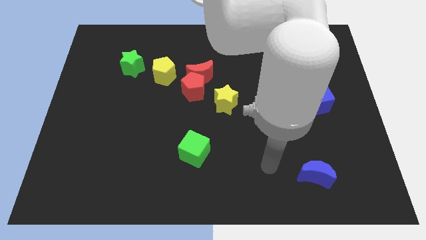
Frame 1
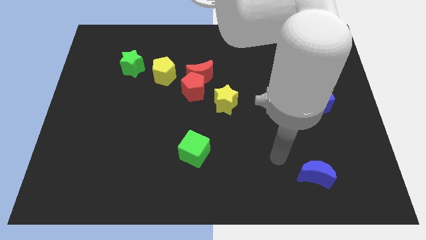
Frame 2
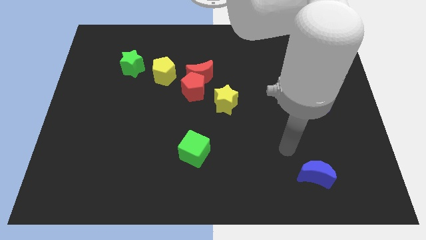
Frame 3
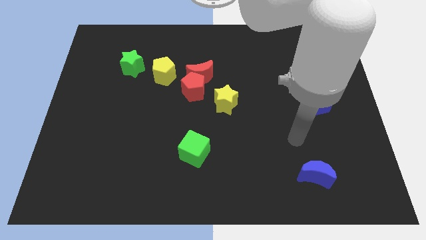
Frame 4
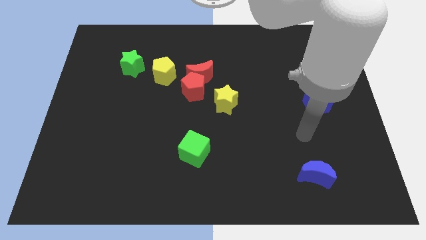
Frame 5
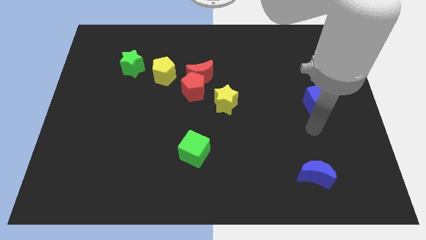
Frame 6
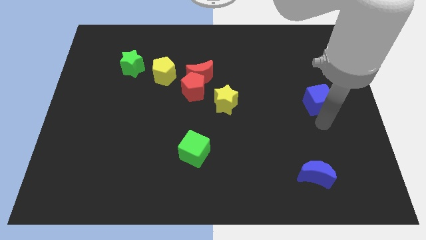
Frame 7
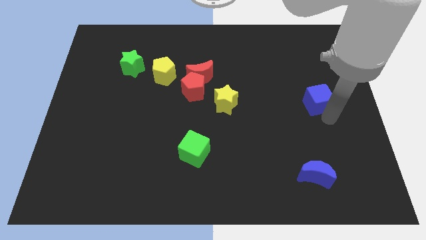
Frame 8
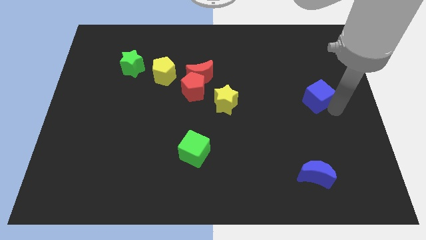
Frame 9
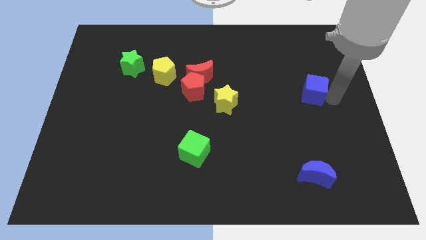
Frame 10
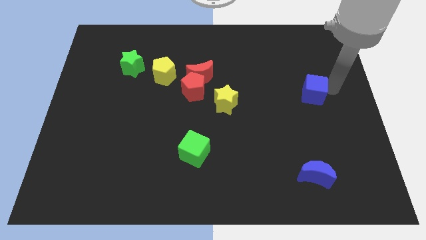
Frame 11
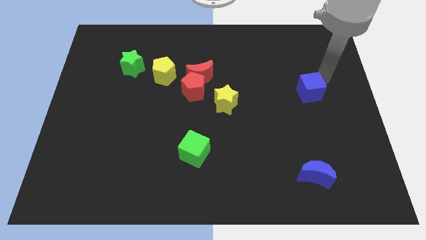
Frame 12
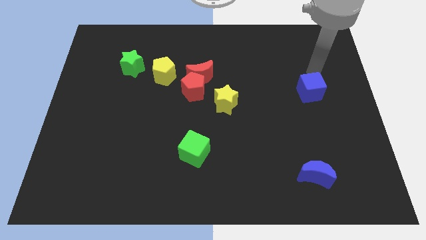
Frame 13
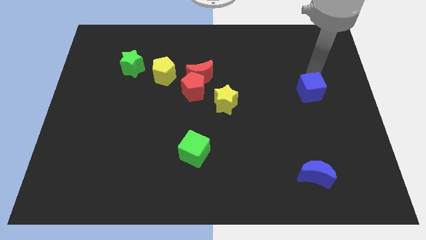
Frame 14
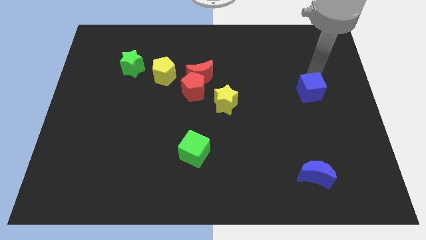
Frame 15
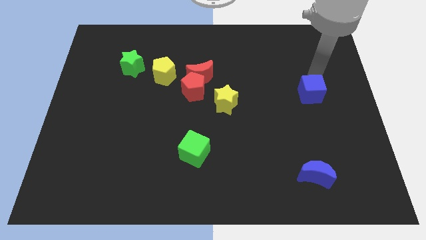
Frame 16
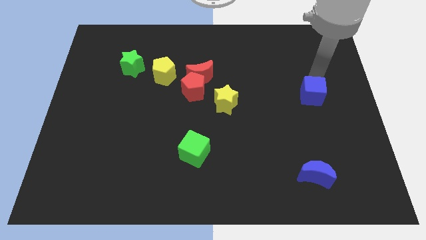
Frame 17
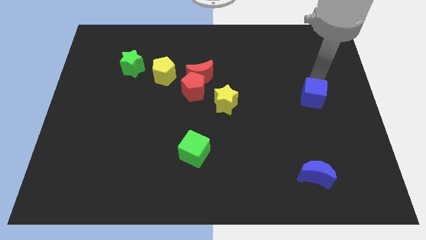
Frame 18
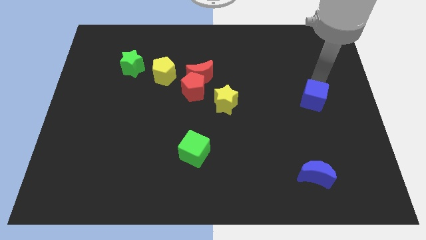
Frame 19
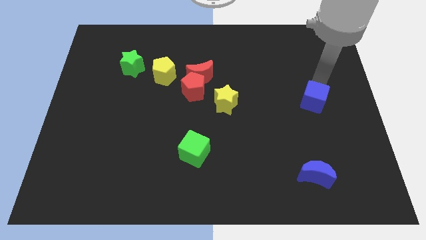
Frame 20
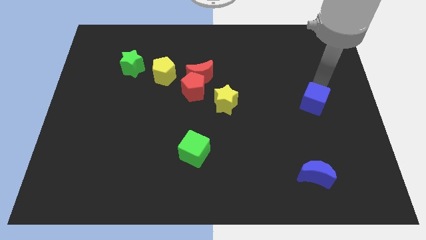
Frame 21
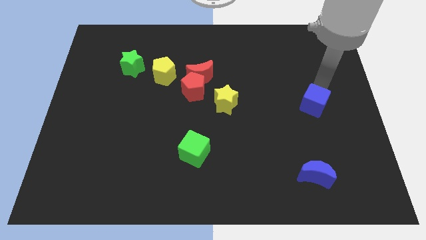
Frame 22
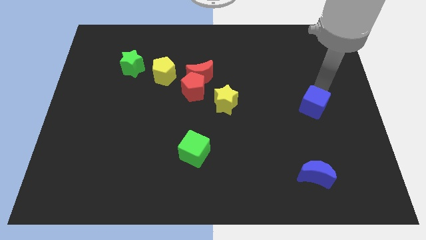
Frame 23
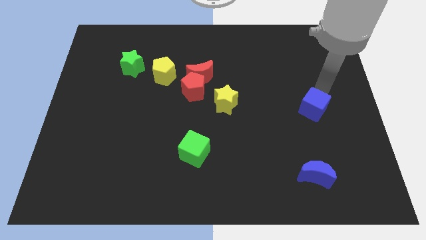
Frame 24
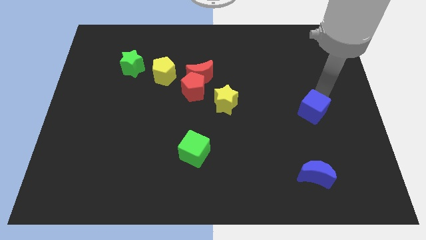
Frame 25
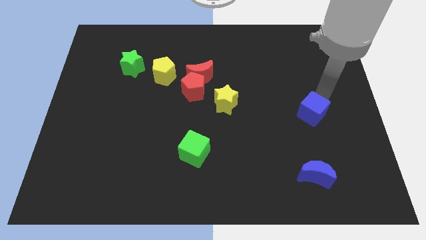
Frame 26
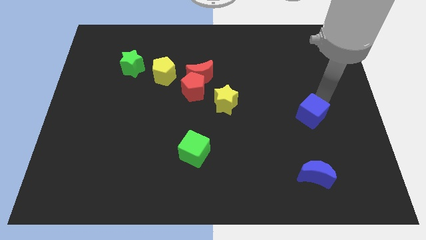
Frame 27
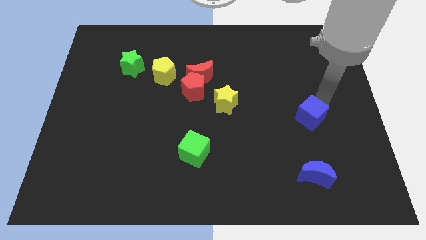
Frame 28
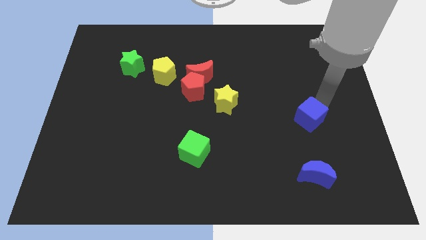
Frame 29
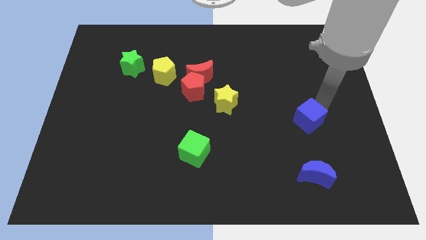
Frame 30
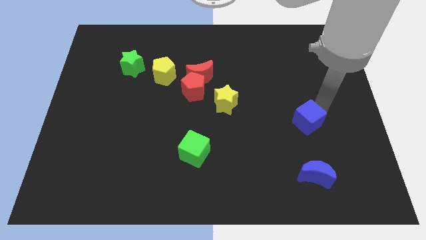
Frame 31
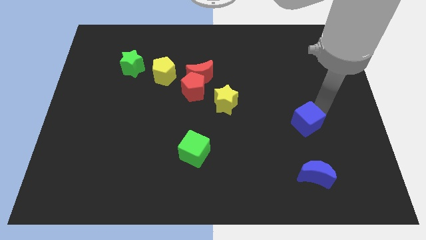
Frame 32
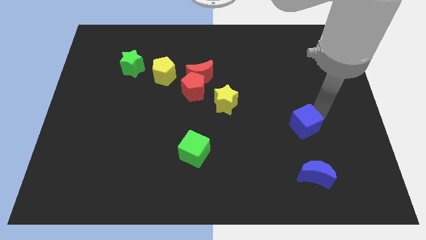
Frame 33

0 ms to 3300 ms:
move the blue cube down and to the left diagonally a little bit

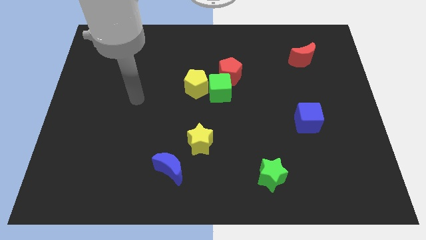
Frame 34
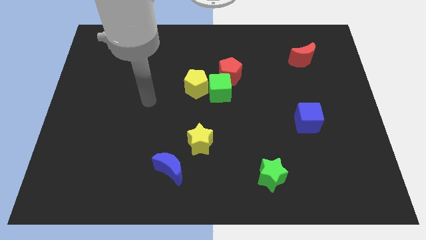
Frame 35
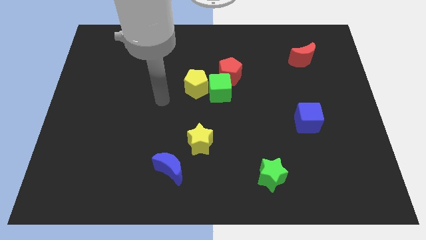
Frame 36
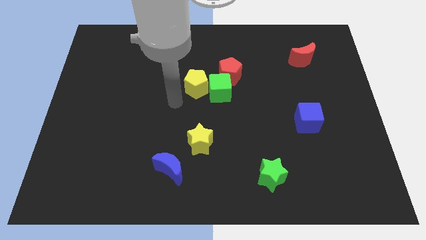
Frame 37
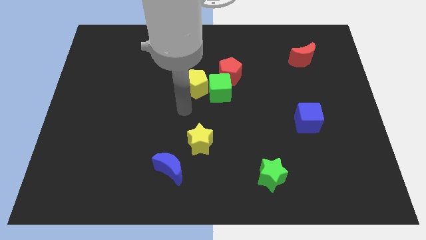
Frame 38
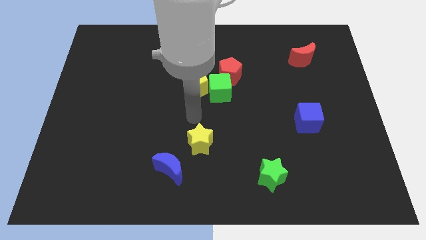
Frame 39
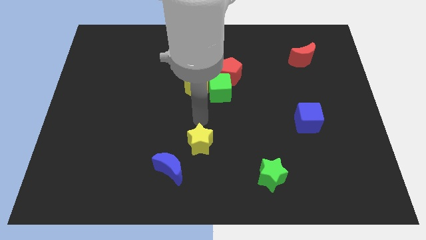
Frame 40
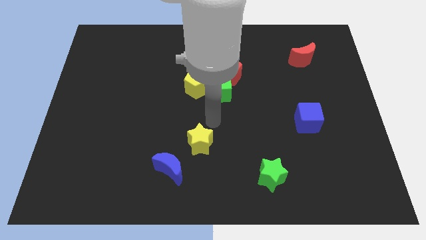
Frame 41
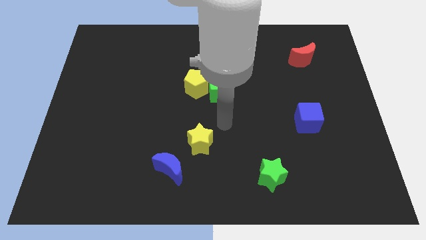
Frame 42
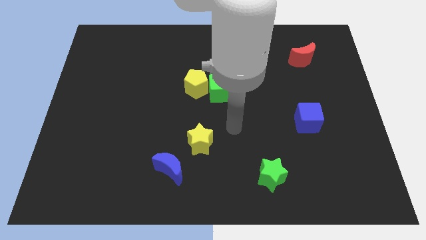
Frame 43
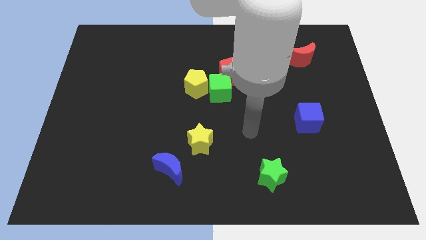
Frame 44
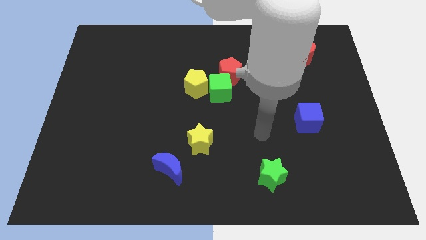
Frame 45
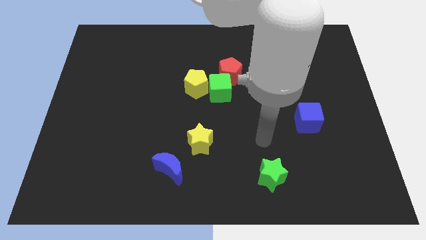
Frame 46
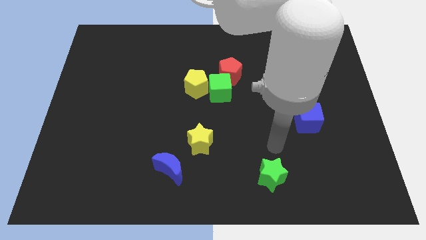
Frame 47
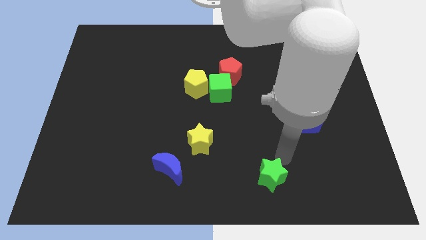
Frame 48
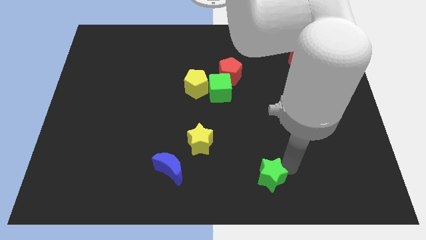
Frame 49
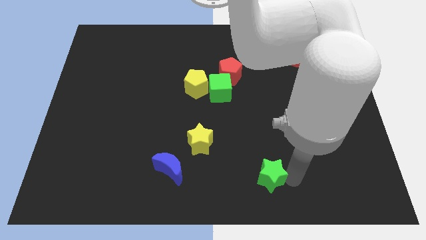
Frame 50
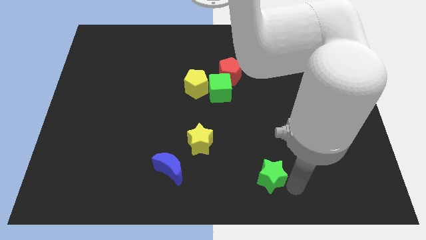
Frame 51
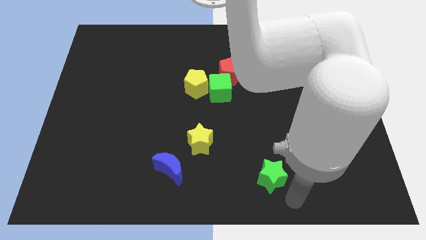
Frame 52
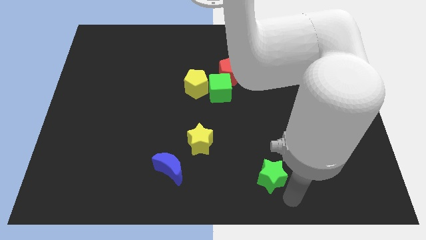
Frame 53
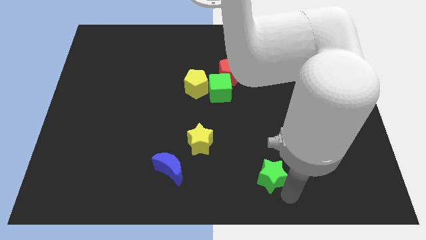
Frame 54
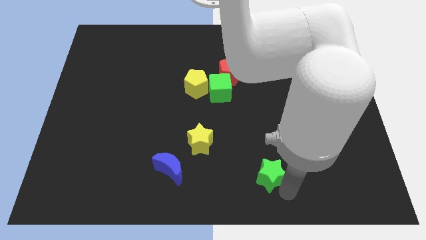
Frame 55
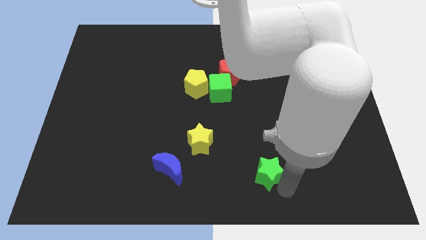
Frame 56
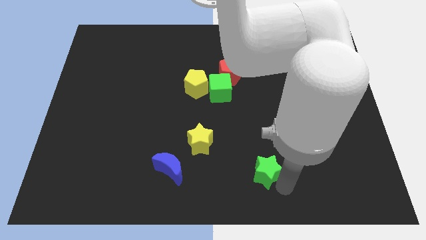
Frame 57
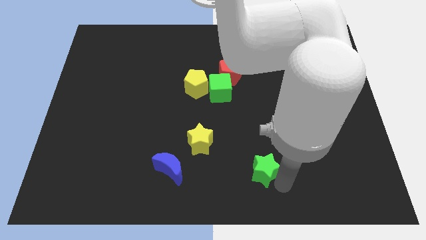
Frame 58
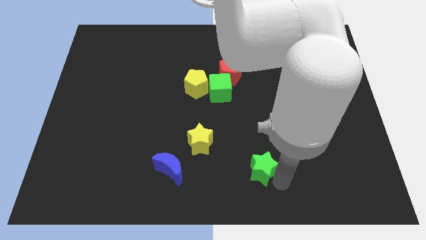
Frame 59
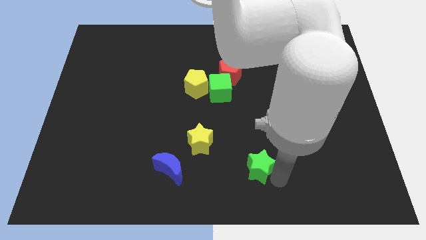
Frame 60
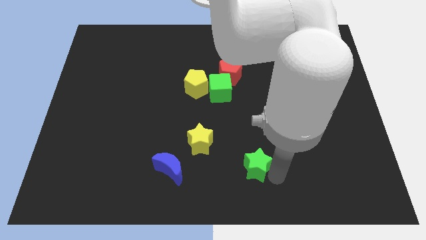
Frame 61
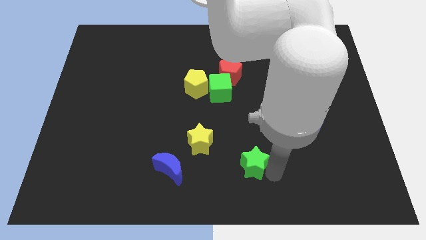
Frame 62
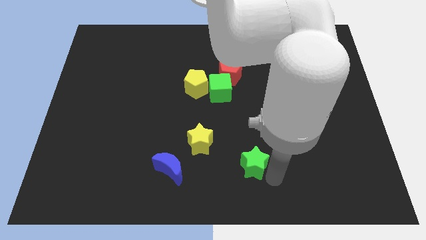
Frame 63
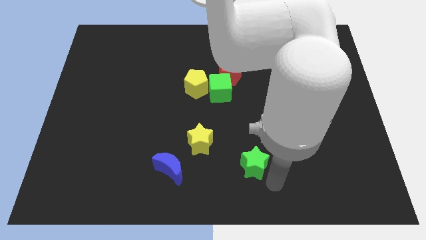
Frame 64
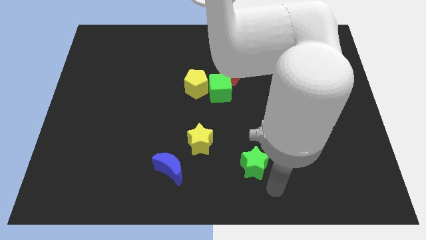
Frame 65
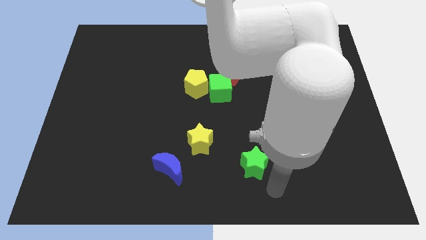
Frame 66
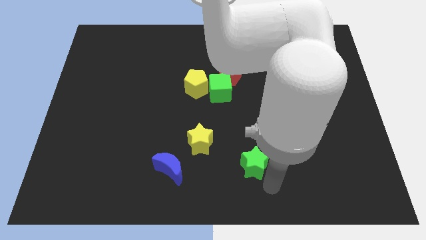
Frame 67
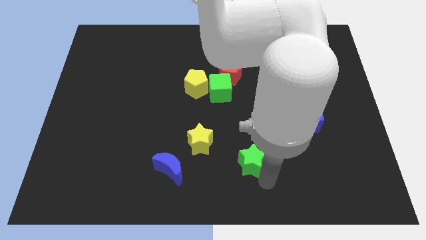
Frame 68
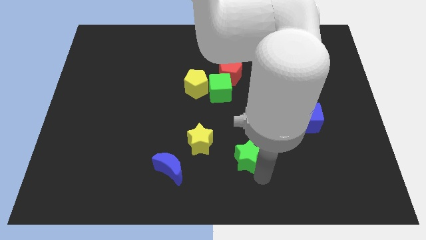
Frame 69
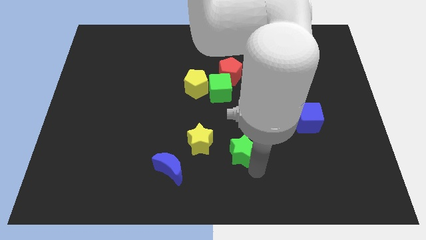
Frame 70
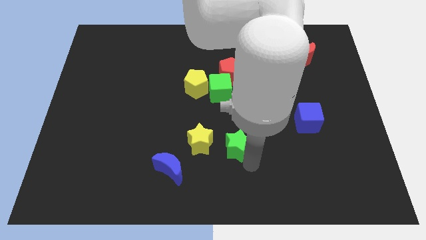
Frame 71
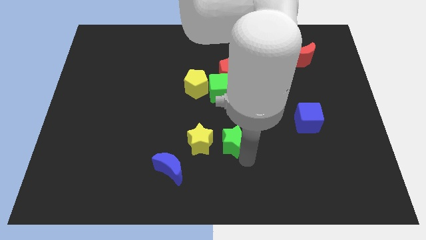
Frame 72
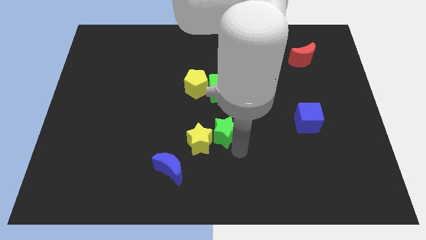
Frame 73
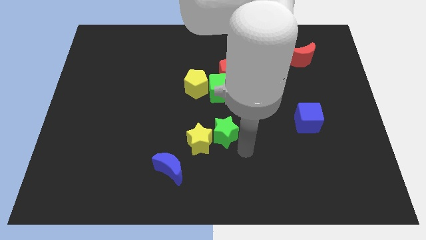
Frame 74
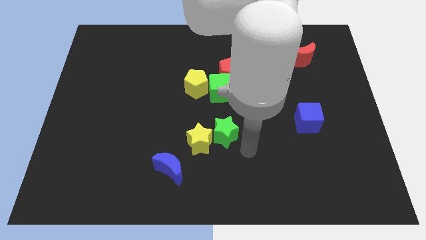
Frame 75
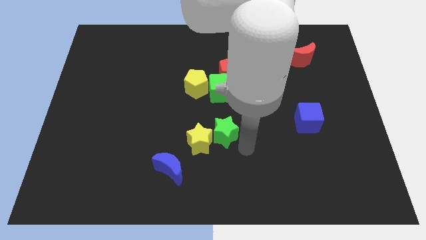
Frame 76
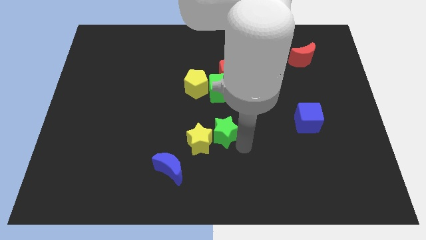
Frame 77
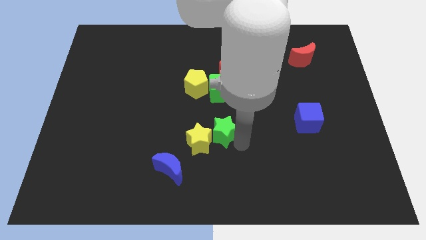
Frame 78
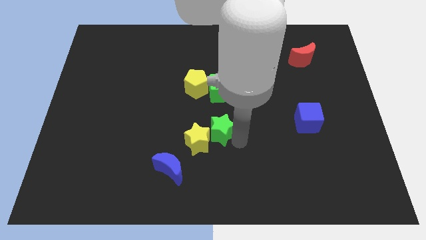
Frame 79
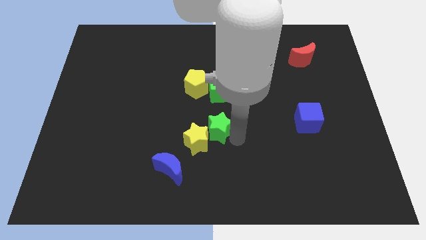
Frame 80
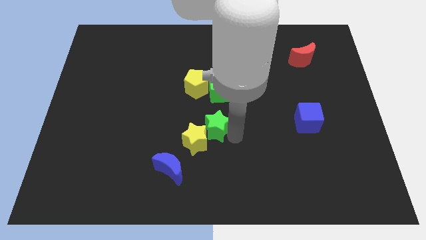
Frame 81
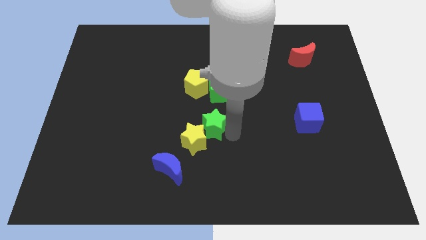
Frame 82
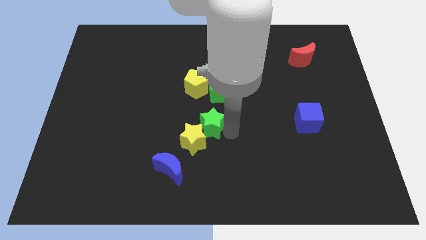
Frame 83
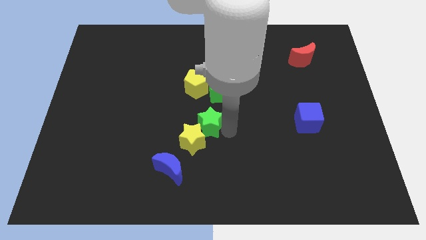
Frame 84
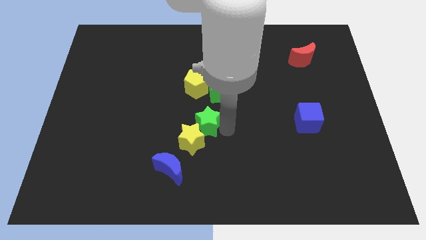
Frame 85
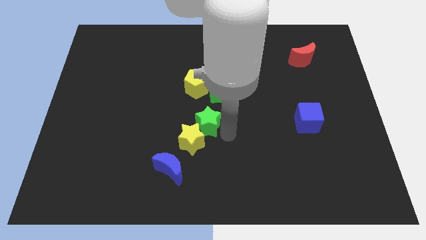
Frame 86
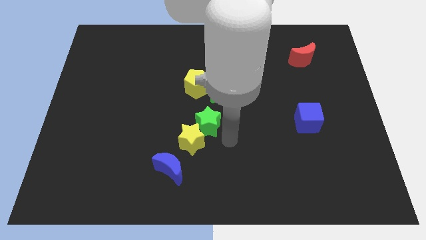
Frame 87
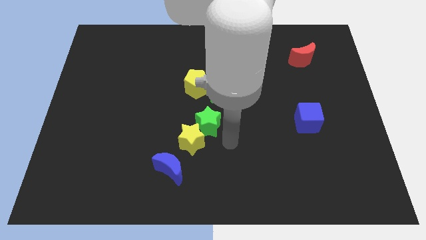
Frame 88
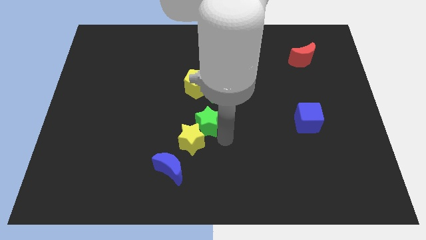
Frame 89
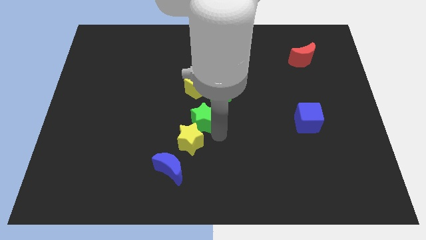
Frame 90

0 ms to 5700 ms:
move the green star upwards and left
